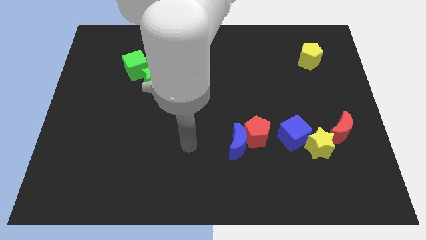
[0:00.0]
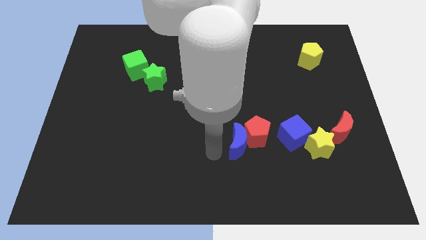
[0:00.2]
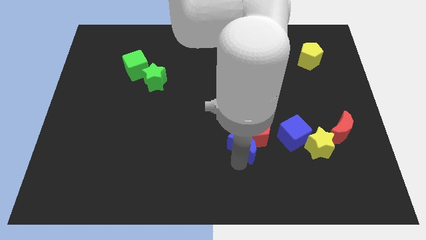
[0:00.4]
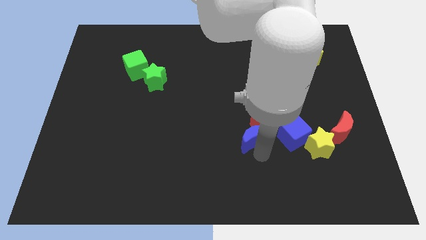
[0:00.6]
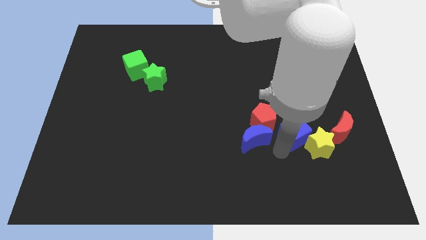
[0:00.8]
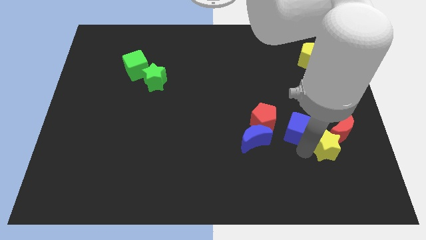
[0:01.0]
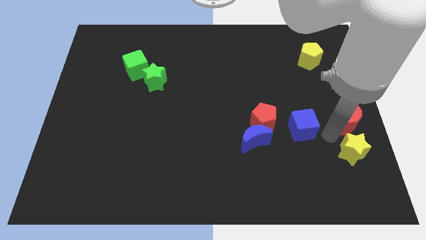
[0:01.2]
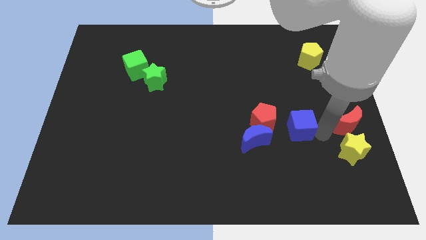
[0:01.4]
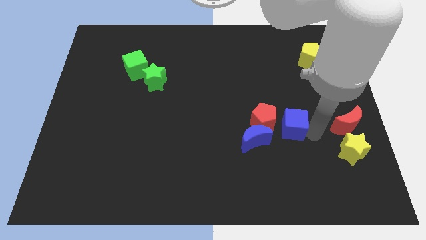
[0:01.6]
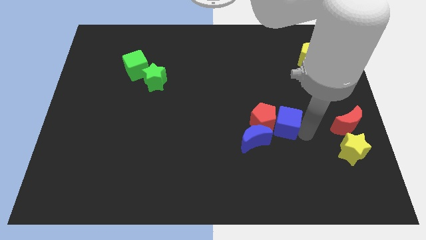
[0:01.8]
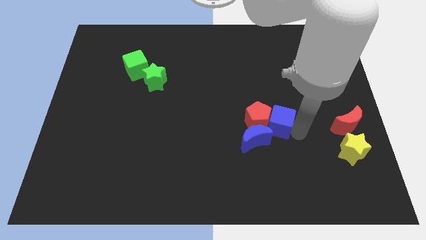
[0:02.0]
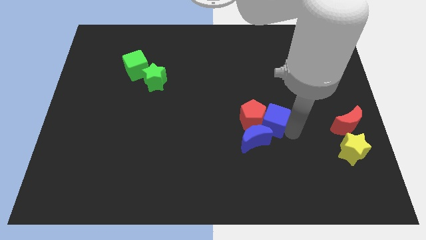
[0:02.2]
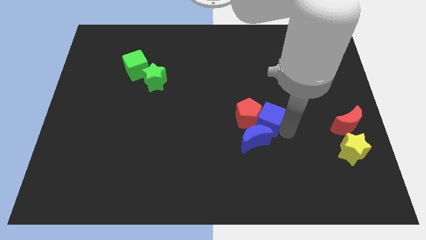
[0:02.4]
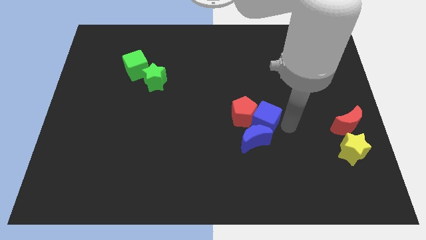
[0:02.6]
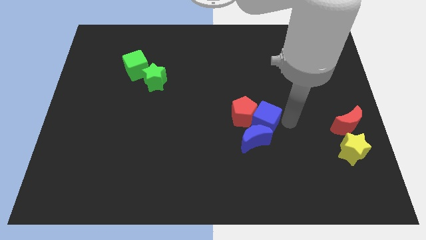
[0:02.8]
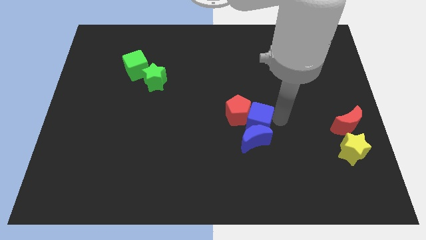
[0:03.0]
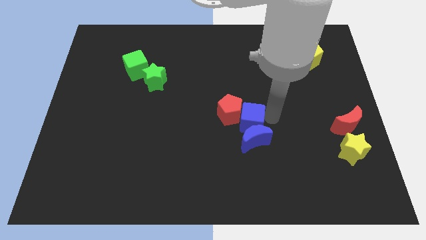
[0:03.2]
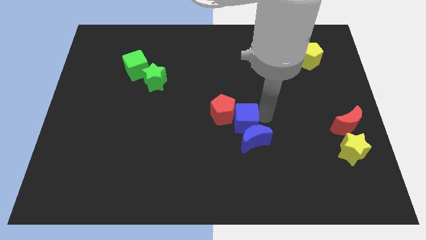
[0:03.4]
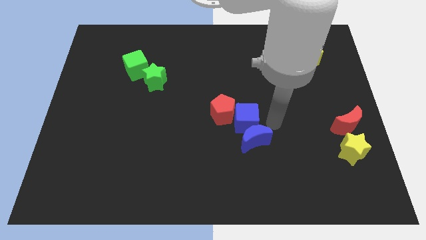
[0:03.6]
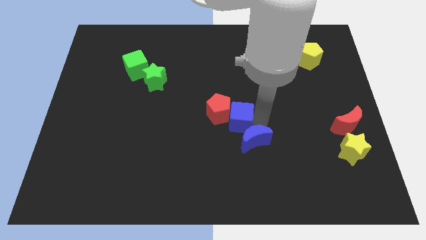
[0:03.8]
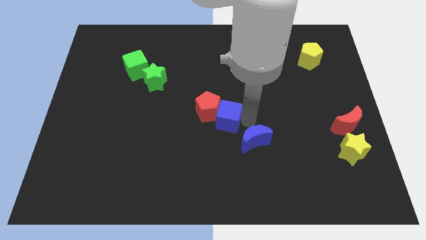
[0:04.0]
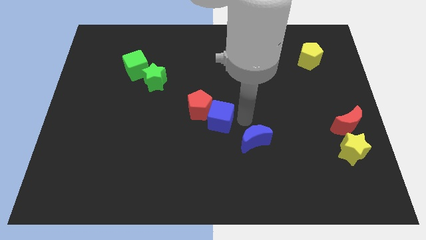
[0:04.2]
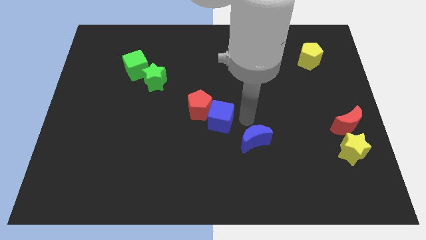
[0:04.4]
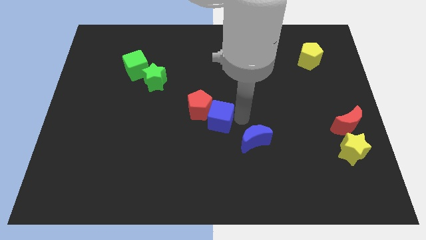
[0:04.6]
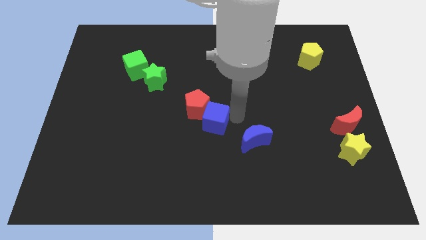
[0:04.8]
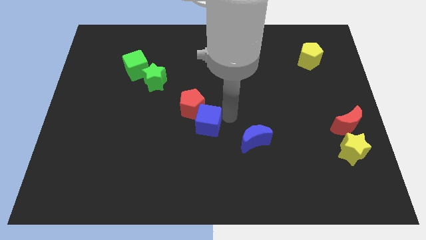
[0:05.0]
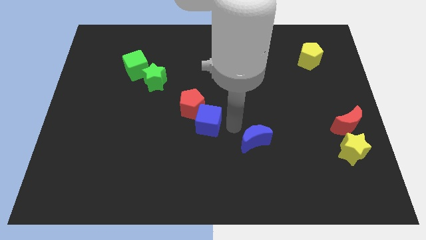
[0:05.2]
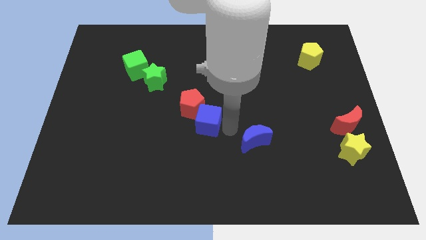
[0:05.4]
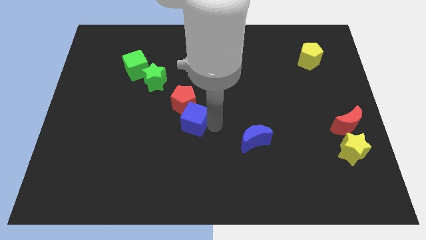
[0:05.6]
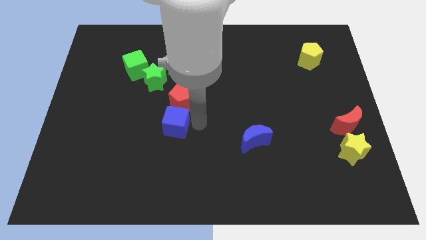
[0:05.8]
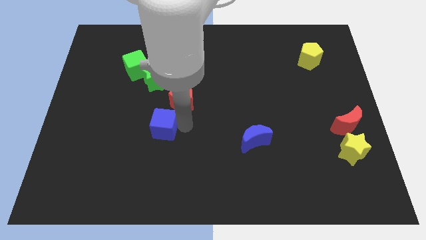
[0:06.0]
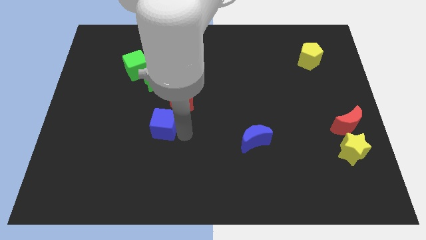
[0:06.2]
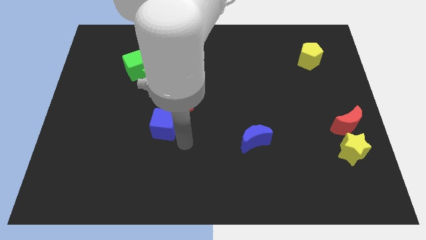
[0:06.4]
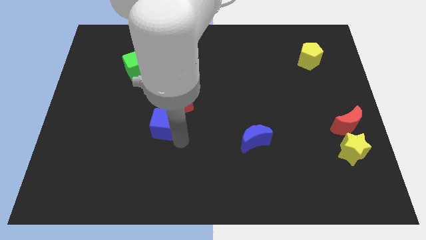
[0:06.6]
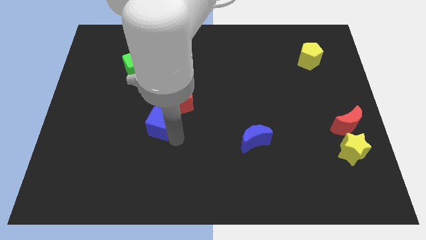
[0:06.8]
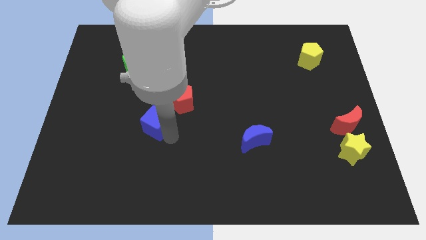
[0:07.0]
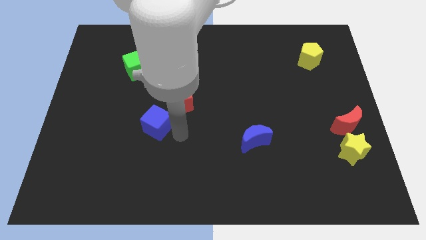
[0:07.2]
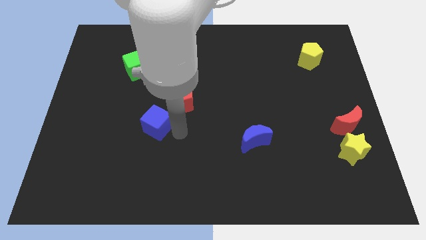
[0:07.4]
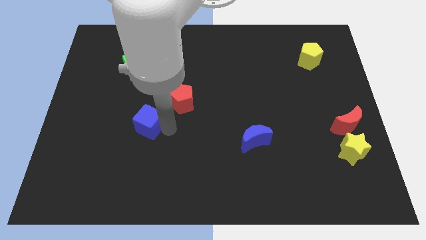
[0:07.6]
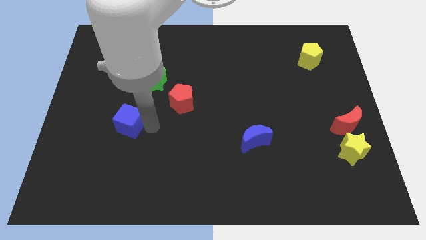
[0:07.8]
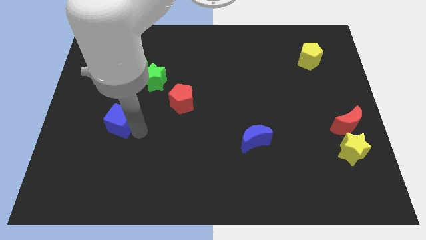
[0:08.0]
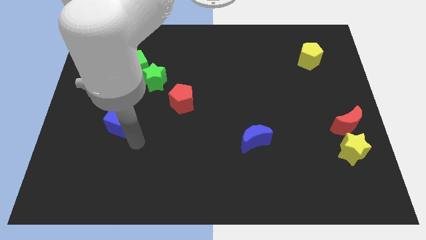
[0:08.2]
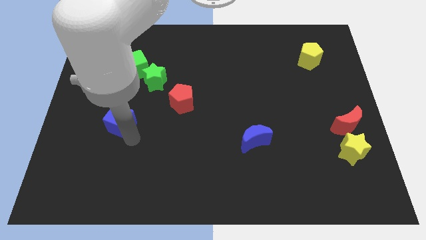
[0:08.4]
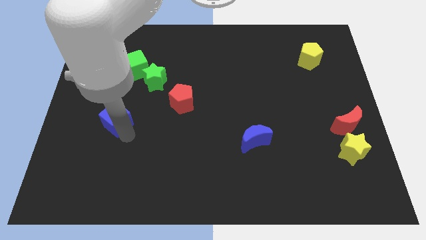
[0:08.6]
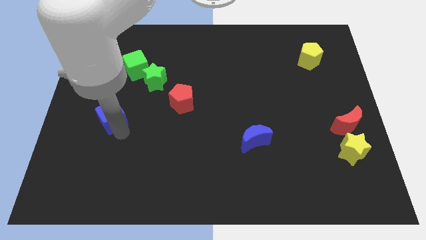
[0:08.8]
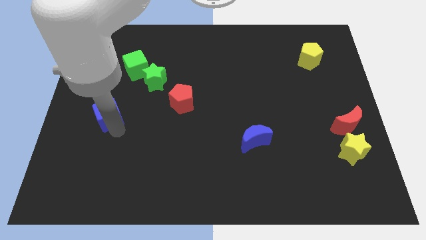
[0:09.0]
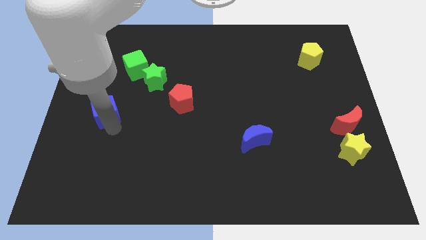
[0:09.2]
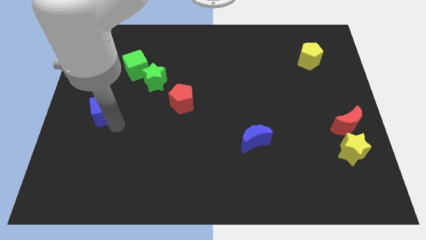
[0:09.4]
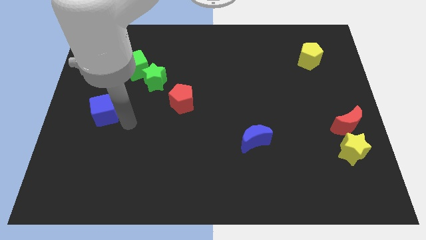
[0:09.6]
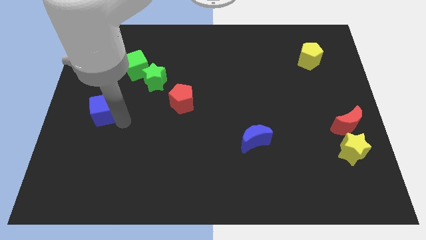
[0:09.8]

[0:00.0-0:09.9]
slide the blue cube to the center left

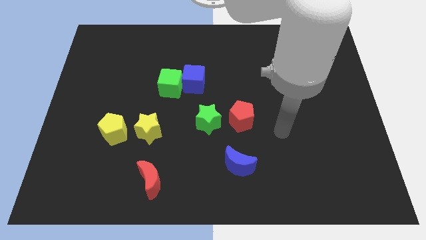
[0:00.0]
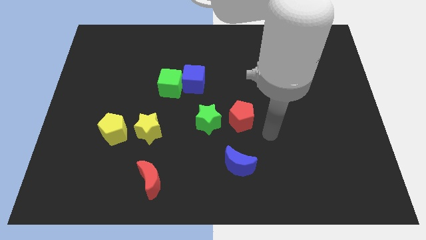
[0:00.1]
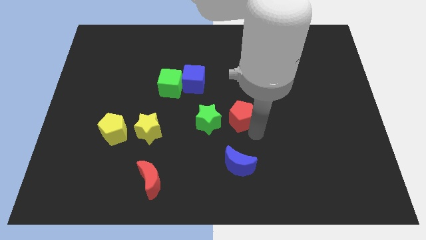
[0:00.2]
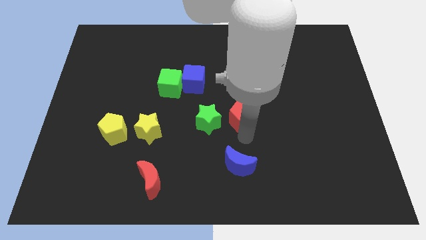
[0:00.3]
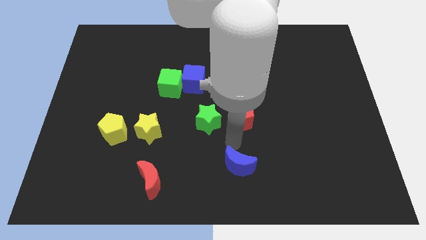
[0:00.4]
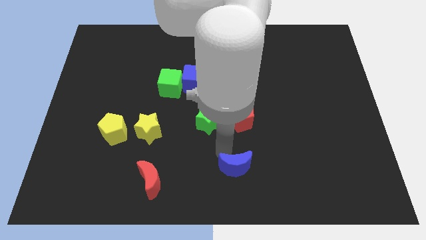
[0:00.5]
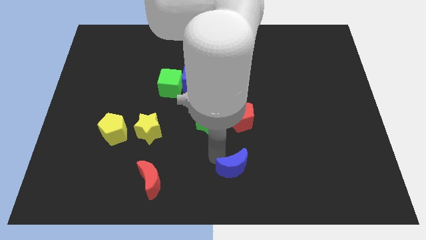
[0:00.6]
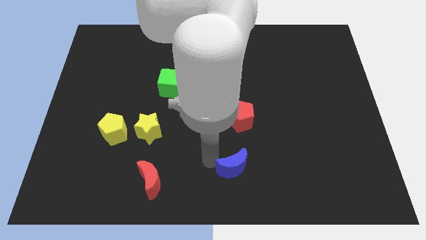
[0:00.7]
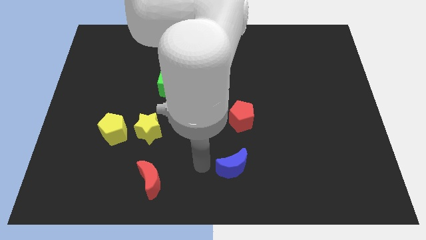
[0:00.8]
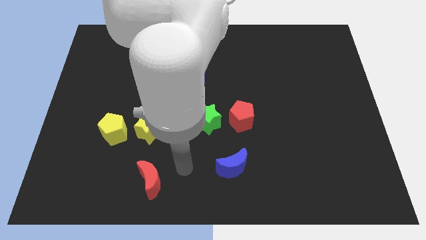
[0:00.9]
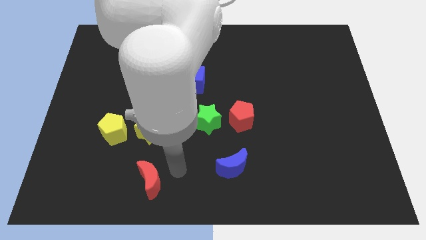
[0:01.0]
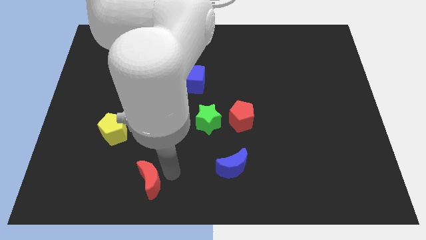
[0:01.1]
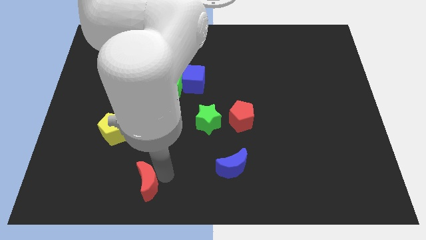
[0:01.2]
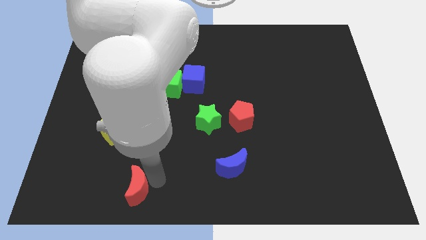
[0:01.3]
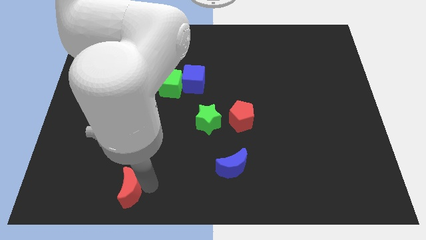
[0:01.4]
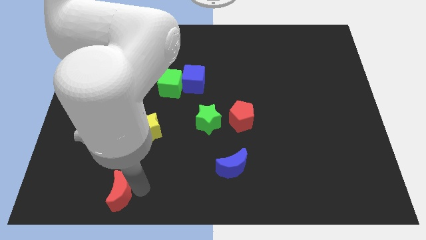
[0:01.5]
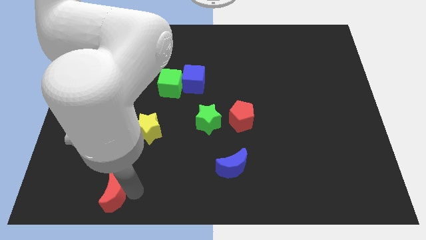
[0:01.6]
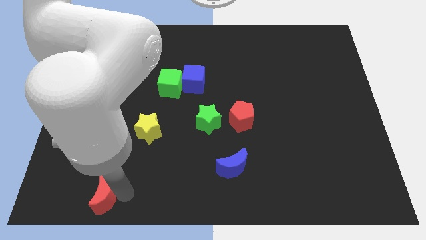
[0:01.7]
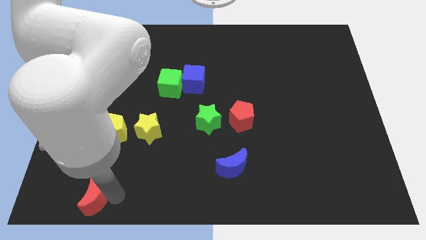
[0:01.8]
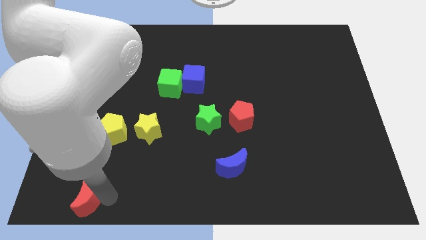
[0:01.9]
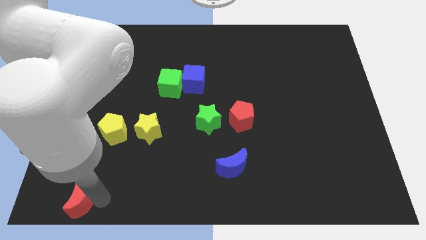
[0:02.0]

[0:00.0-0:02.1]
push the red moon to the bottom left corner
